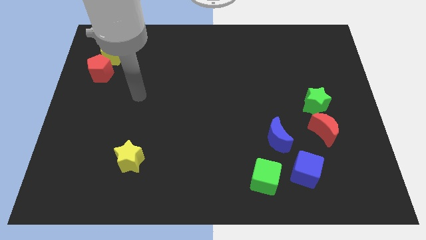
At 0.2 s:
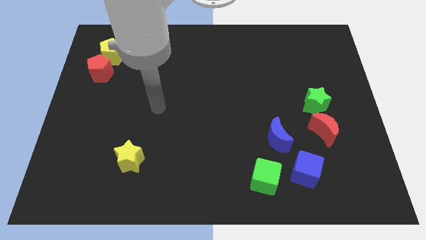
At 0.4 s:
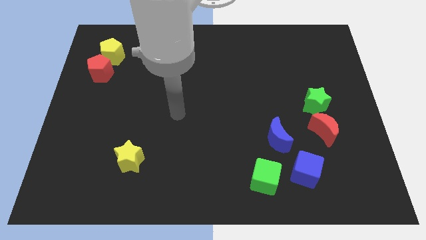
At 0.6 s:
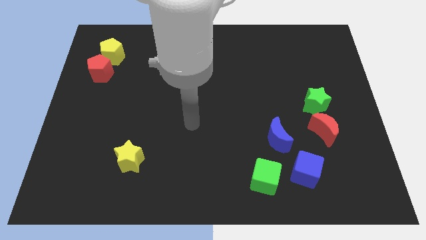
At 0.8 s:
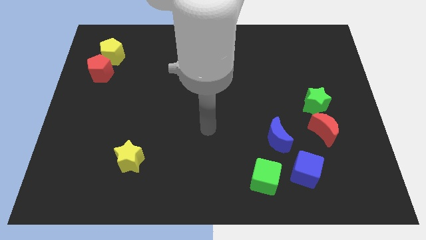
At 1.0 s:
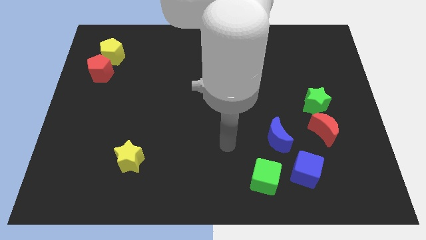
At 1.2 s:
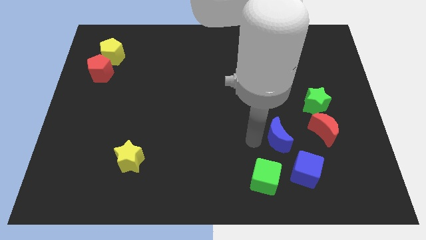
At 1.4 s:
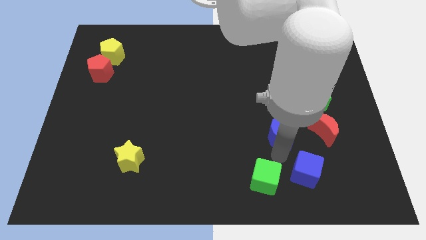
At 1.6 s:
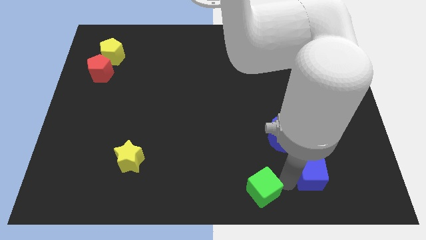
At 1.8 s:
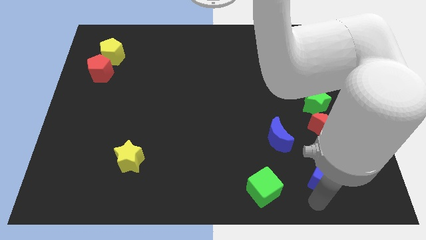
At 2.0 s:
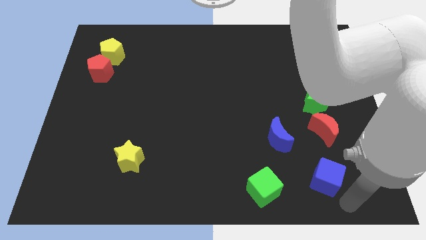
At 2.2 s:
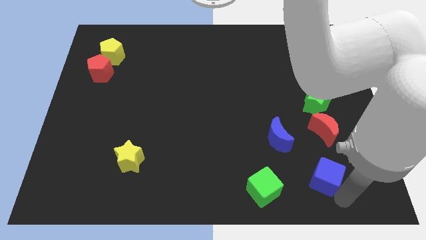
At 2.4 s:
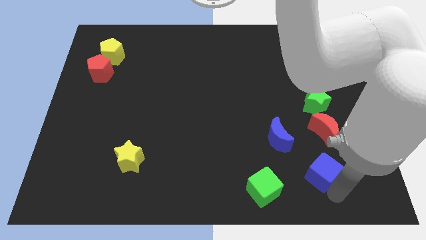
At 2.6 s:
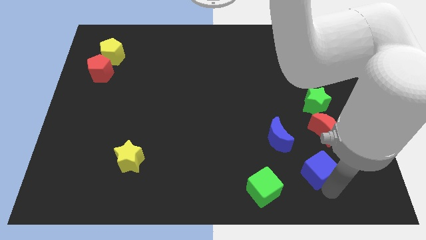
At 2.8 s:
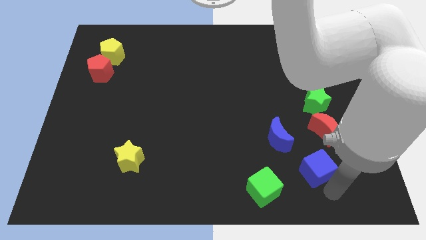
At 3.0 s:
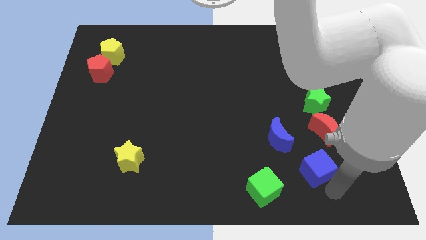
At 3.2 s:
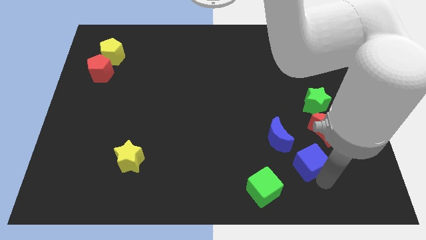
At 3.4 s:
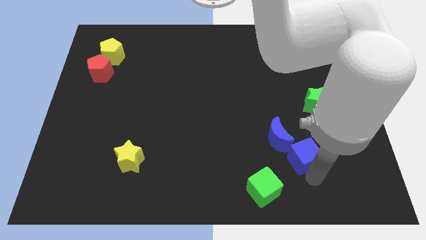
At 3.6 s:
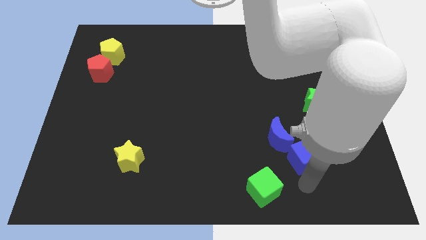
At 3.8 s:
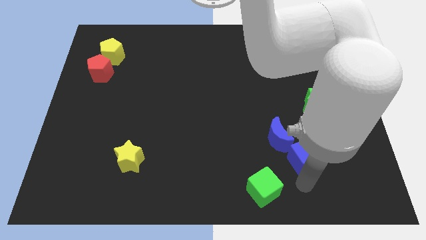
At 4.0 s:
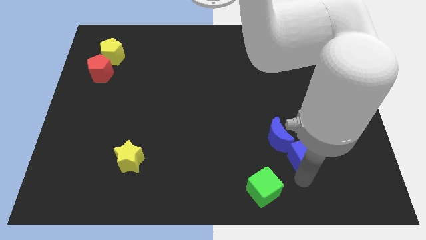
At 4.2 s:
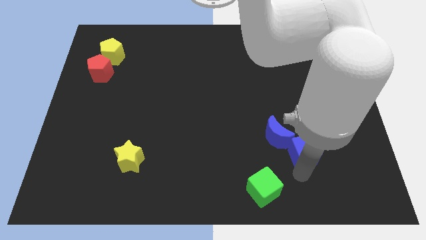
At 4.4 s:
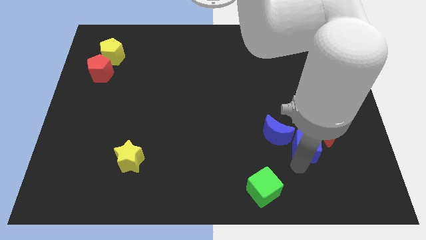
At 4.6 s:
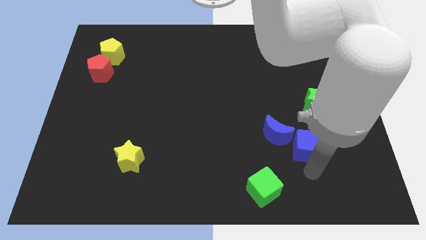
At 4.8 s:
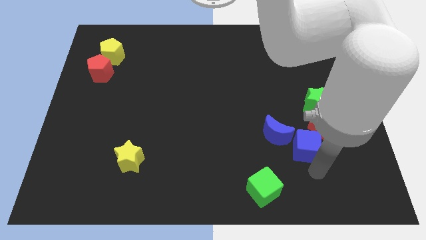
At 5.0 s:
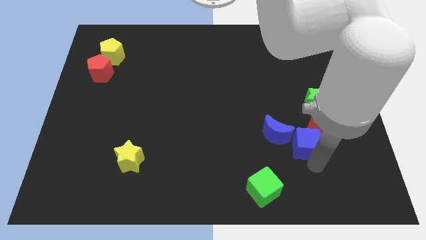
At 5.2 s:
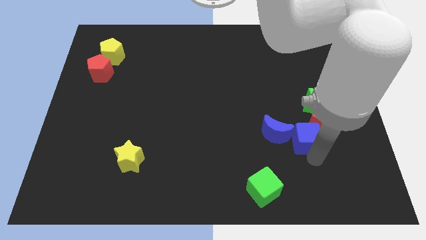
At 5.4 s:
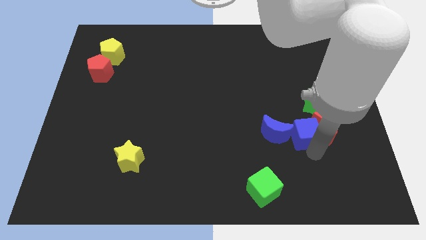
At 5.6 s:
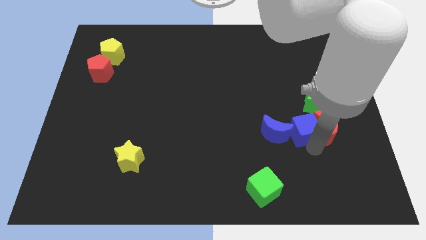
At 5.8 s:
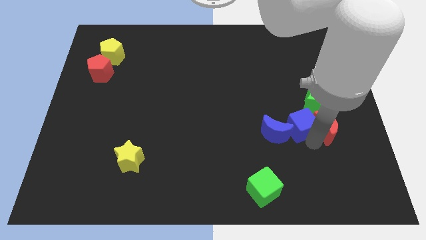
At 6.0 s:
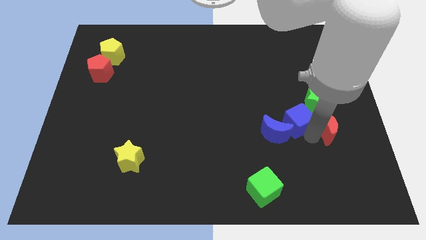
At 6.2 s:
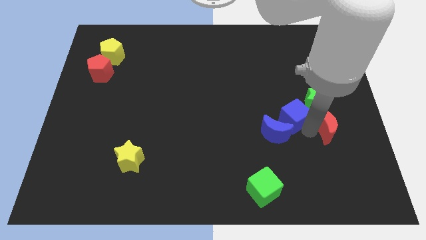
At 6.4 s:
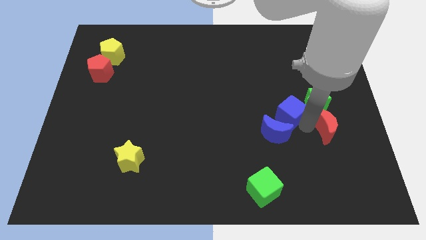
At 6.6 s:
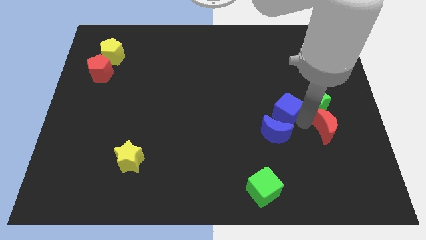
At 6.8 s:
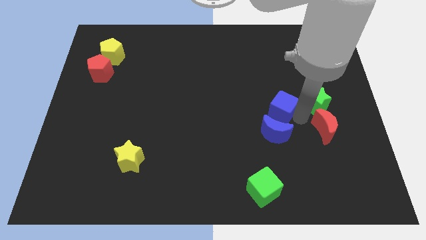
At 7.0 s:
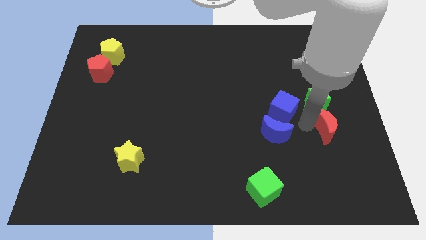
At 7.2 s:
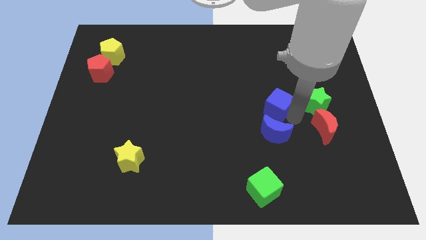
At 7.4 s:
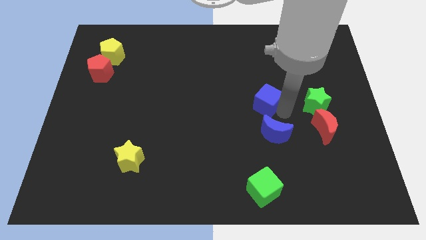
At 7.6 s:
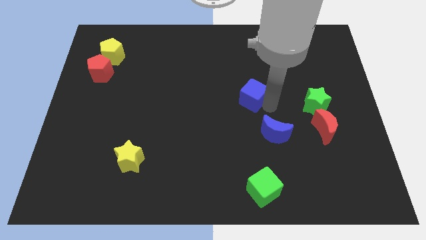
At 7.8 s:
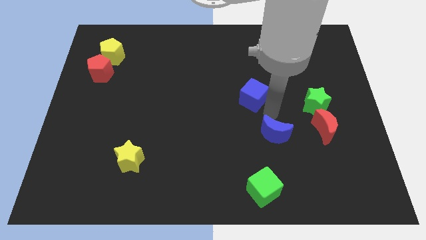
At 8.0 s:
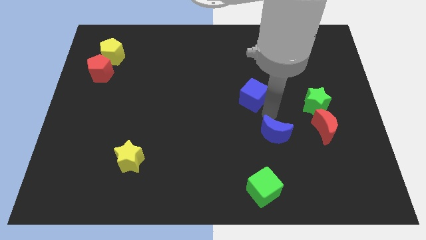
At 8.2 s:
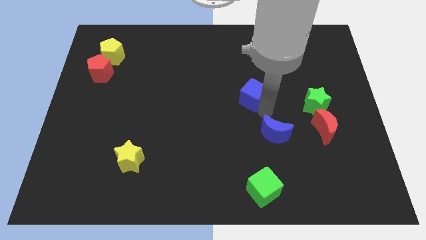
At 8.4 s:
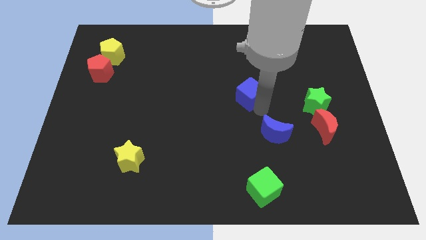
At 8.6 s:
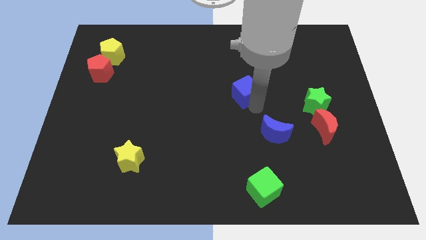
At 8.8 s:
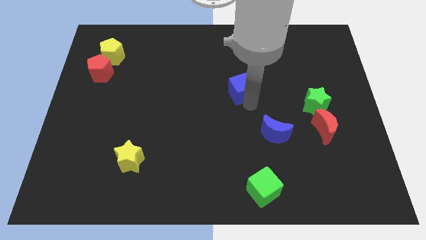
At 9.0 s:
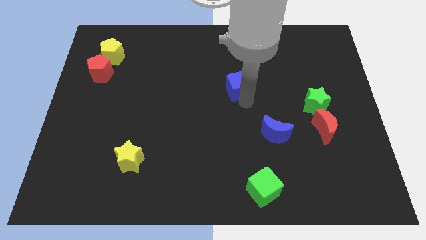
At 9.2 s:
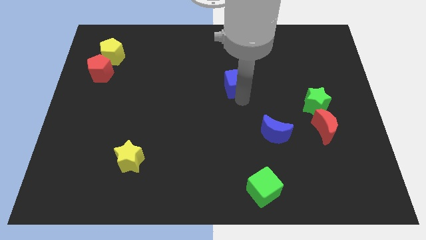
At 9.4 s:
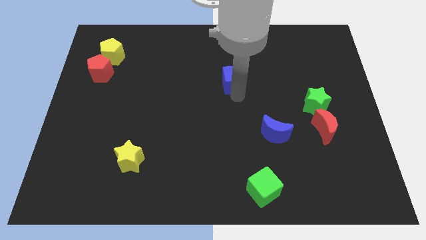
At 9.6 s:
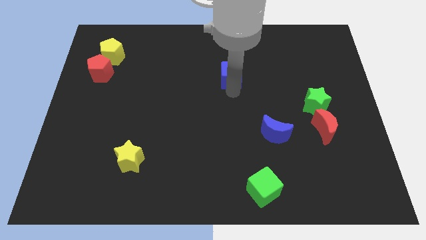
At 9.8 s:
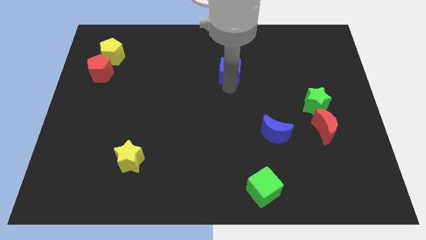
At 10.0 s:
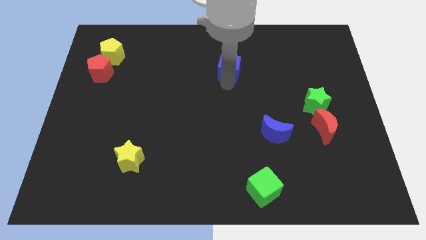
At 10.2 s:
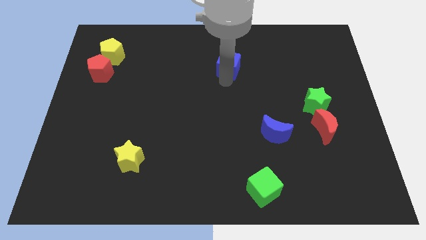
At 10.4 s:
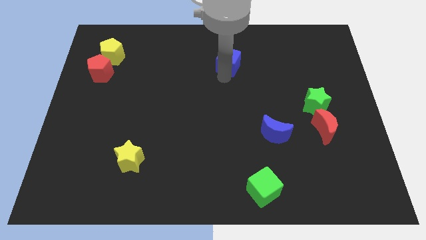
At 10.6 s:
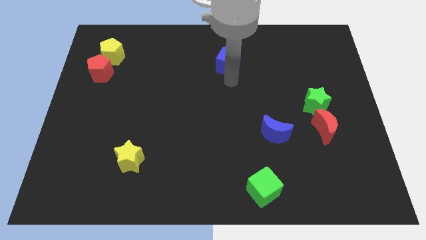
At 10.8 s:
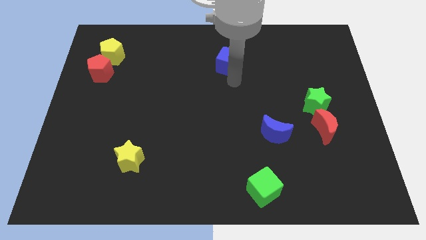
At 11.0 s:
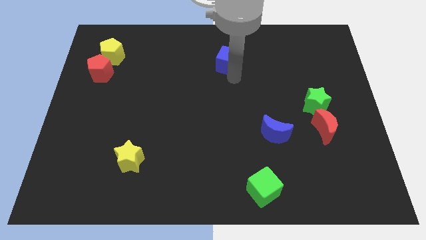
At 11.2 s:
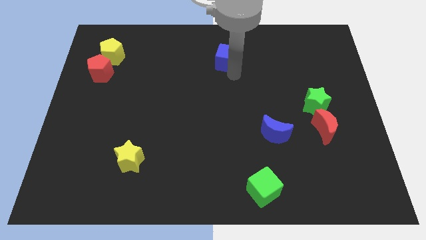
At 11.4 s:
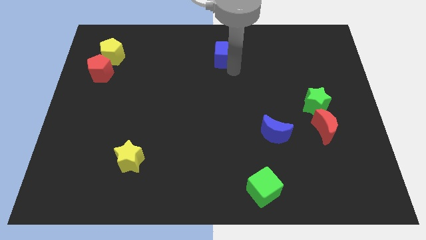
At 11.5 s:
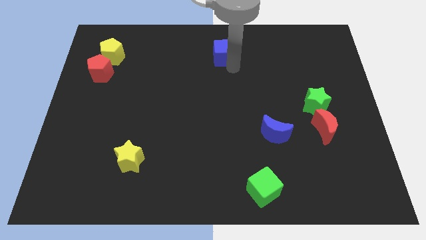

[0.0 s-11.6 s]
put the blue cube to the top

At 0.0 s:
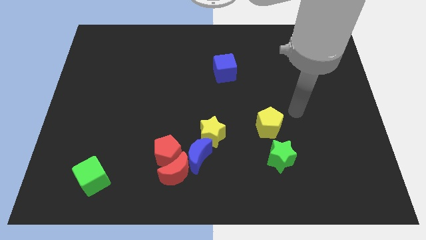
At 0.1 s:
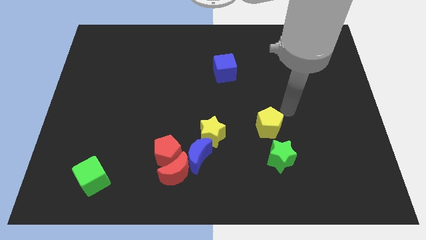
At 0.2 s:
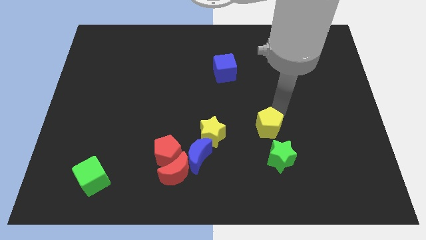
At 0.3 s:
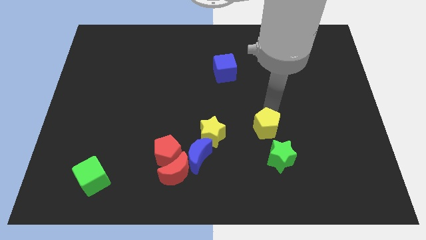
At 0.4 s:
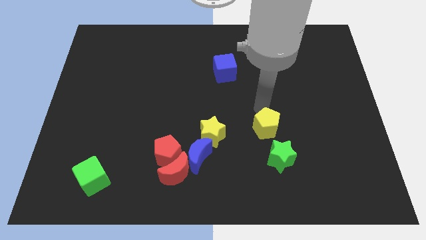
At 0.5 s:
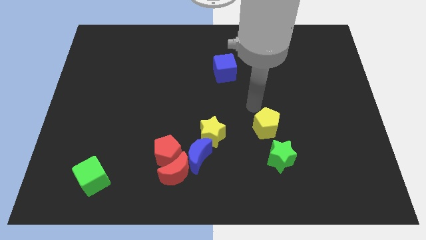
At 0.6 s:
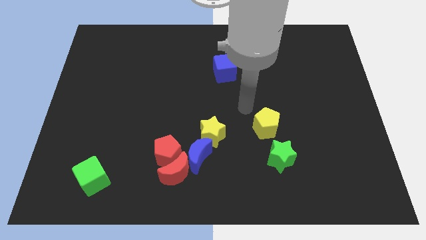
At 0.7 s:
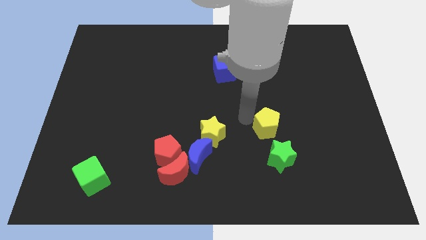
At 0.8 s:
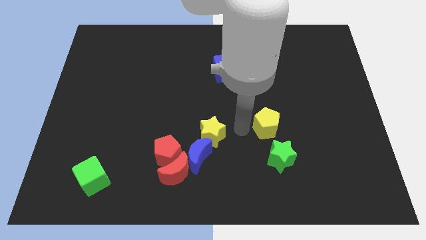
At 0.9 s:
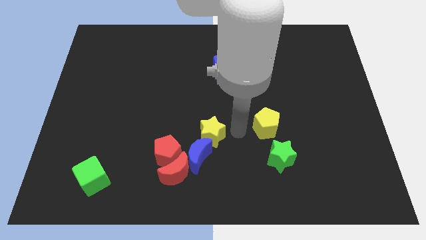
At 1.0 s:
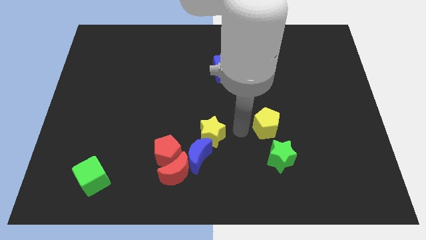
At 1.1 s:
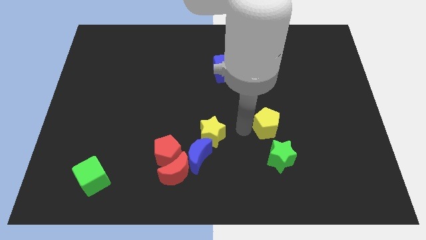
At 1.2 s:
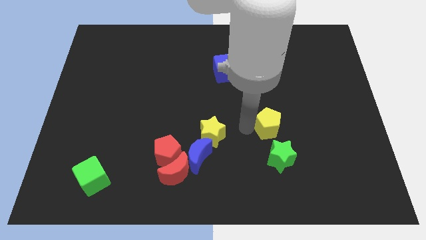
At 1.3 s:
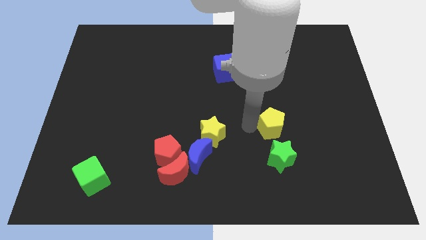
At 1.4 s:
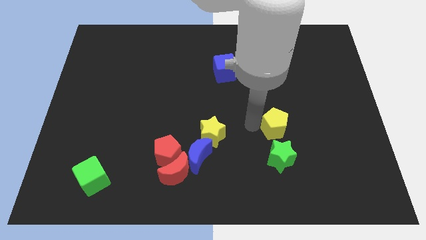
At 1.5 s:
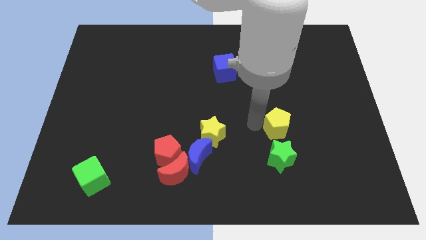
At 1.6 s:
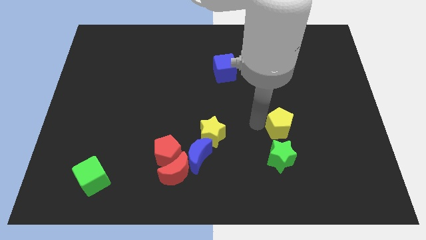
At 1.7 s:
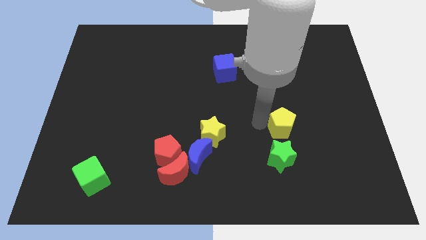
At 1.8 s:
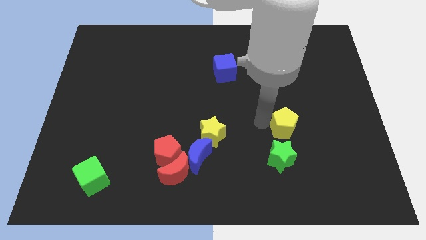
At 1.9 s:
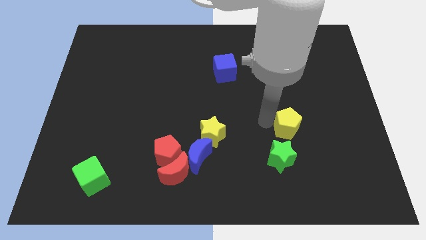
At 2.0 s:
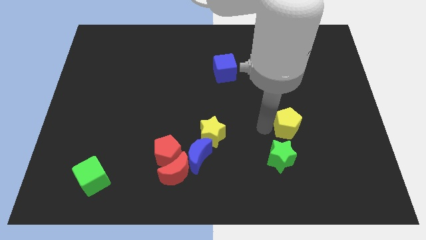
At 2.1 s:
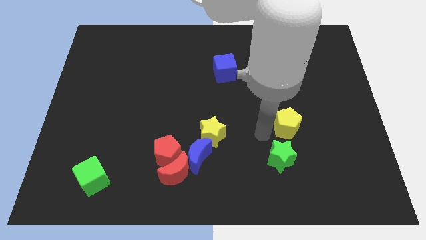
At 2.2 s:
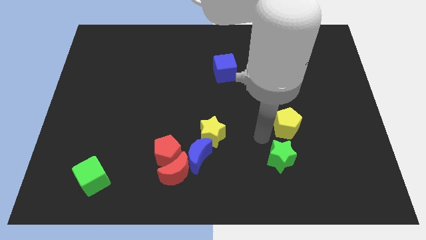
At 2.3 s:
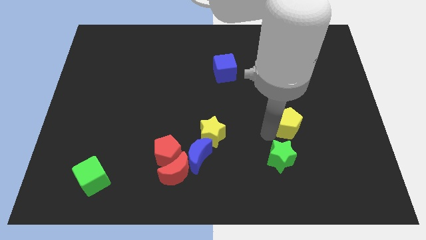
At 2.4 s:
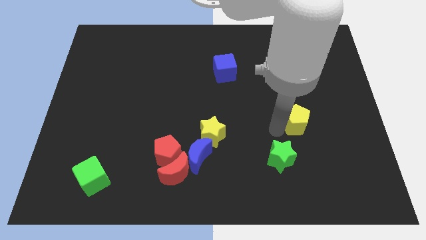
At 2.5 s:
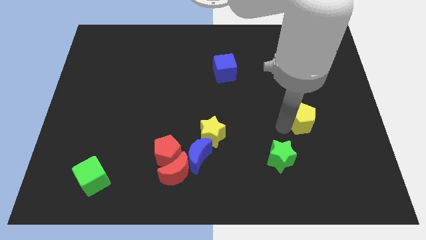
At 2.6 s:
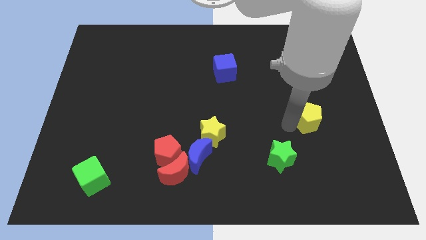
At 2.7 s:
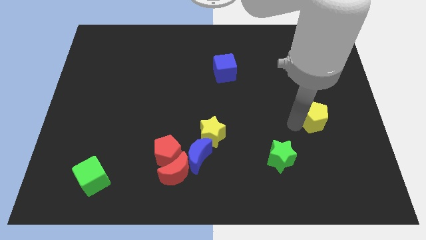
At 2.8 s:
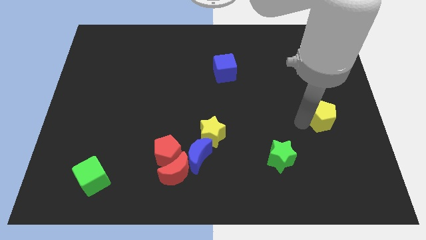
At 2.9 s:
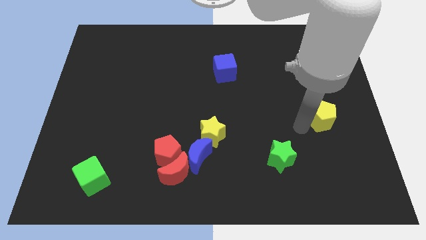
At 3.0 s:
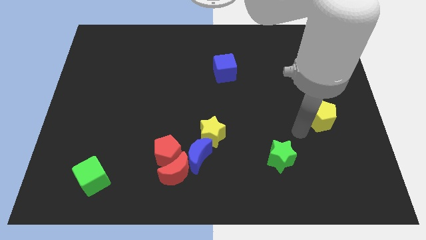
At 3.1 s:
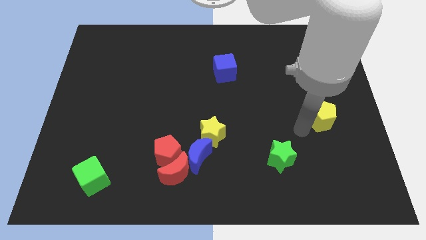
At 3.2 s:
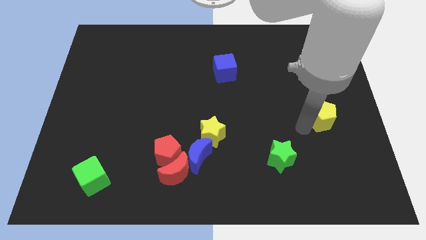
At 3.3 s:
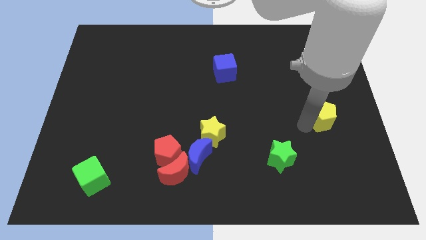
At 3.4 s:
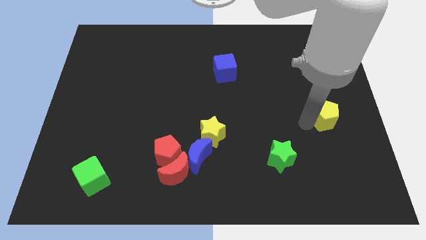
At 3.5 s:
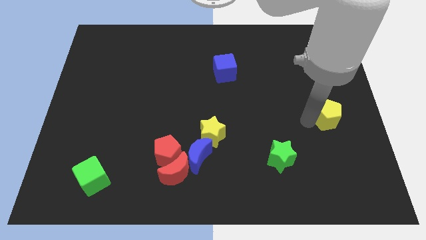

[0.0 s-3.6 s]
push the yellow pentagon to the right side
